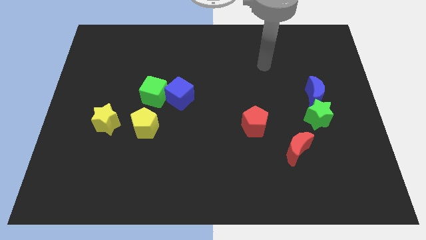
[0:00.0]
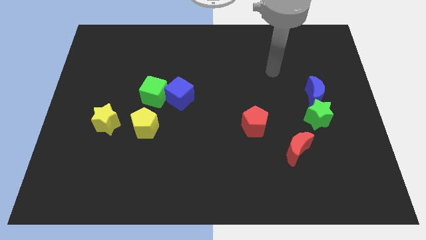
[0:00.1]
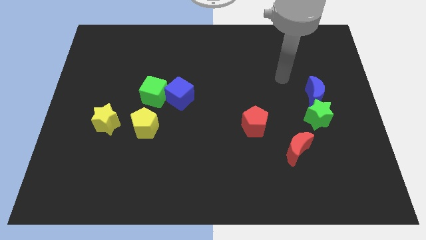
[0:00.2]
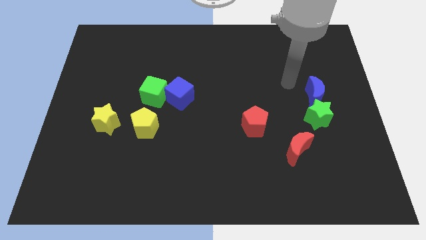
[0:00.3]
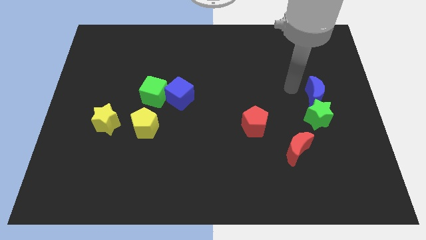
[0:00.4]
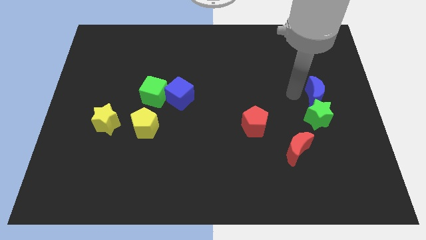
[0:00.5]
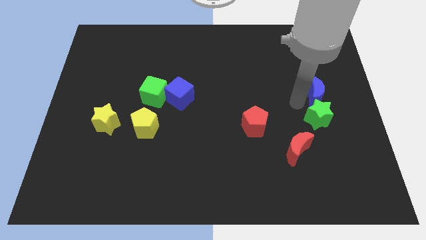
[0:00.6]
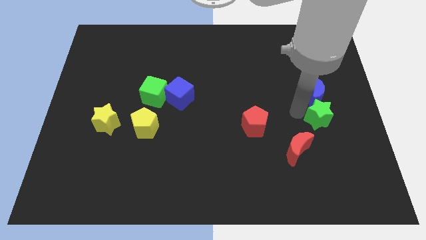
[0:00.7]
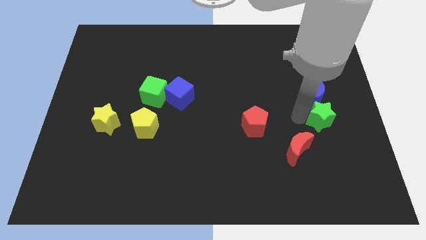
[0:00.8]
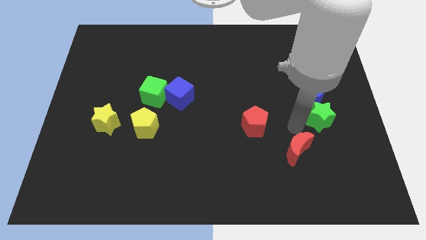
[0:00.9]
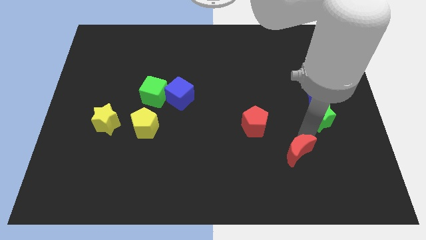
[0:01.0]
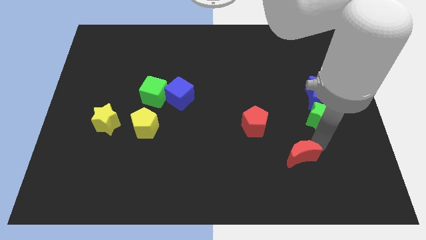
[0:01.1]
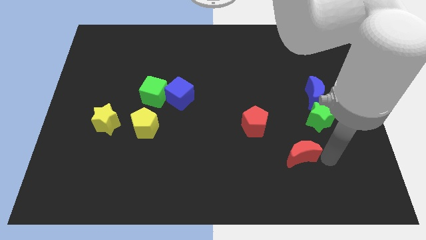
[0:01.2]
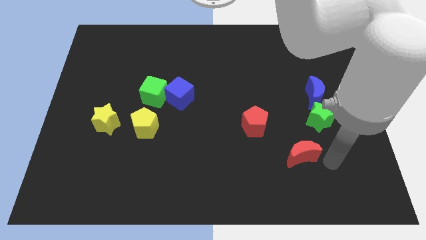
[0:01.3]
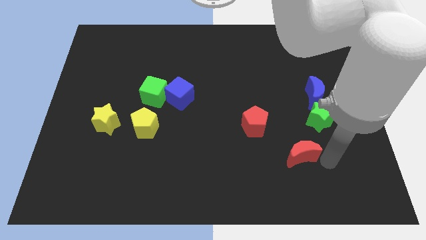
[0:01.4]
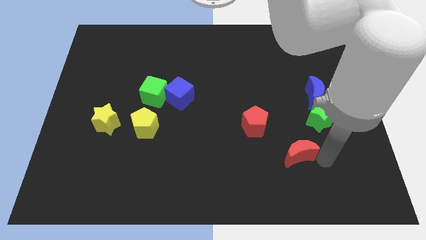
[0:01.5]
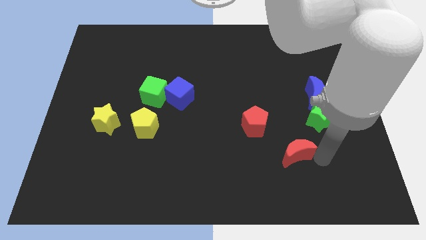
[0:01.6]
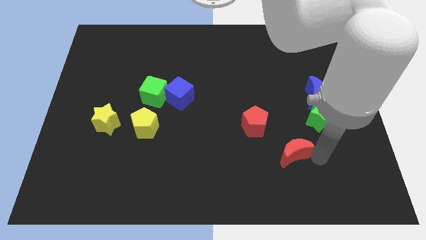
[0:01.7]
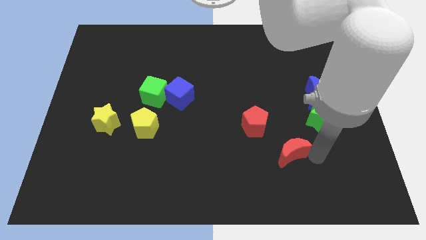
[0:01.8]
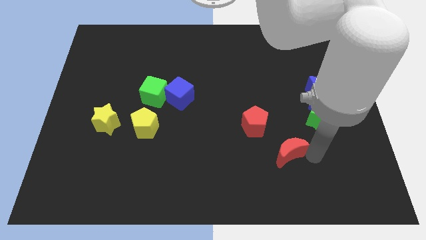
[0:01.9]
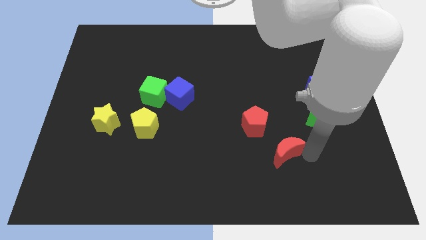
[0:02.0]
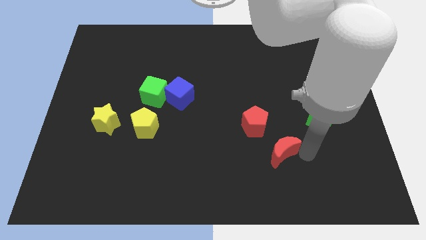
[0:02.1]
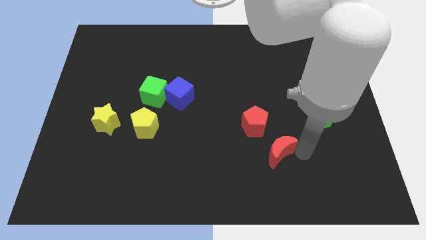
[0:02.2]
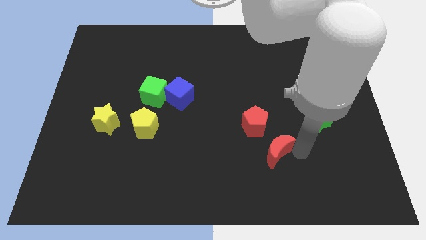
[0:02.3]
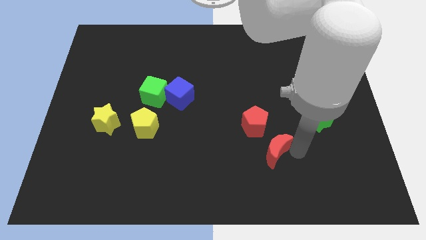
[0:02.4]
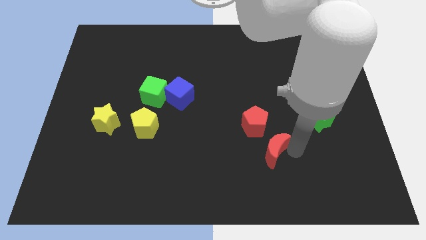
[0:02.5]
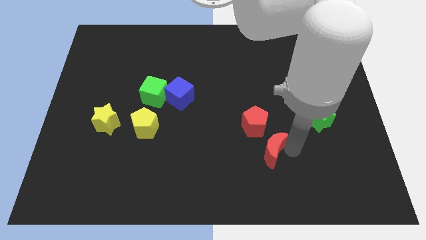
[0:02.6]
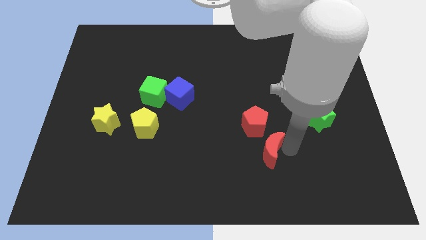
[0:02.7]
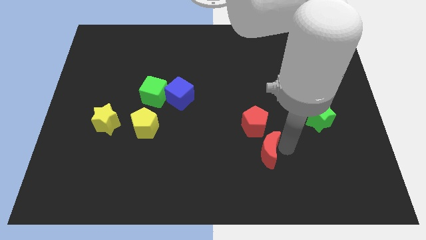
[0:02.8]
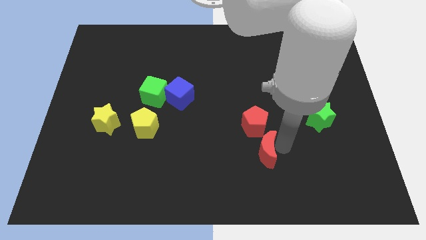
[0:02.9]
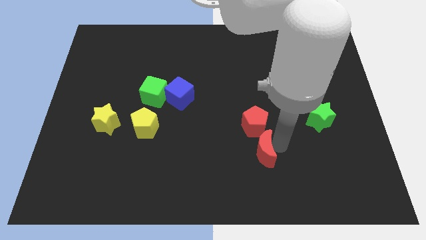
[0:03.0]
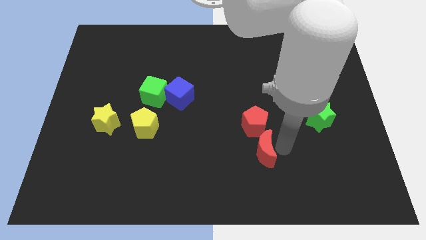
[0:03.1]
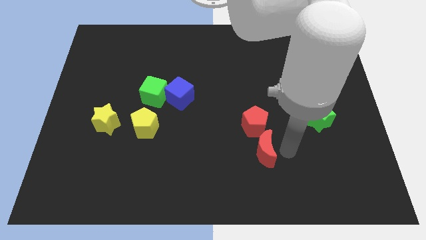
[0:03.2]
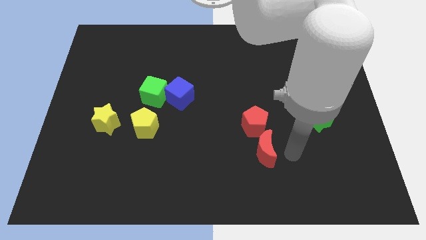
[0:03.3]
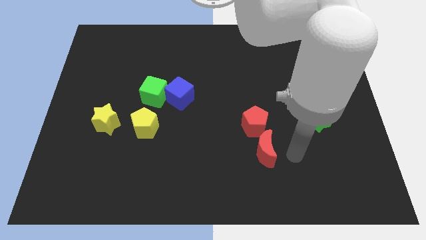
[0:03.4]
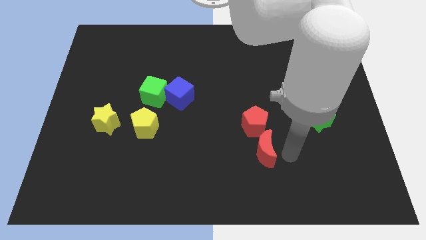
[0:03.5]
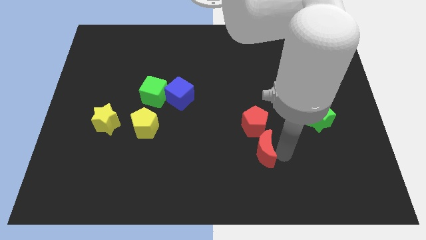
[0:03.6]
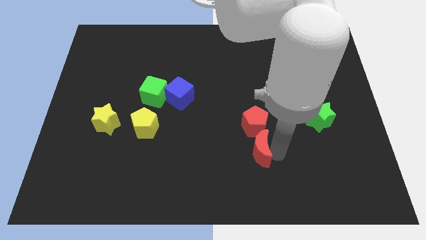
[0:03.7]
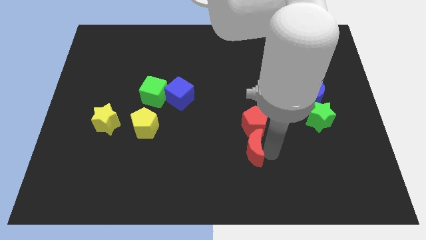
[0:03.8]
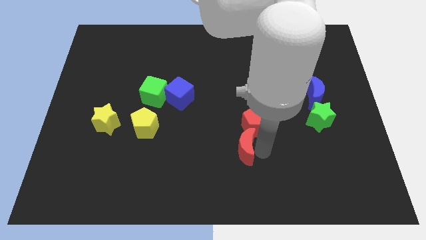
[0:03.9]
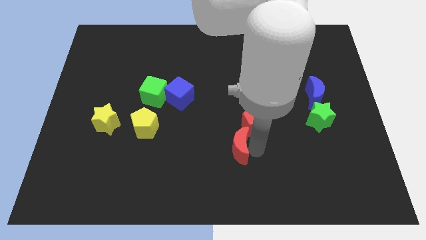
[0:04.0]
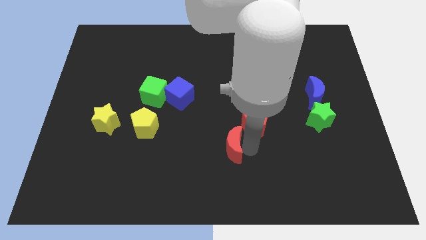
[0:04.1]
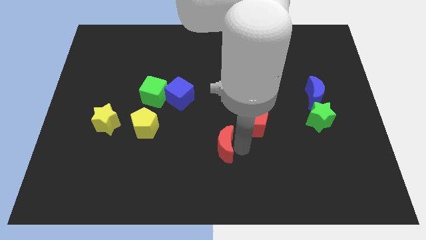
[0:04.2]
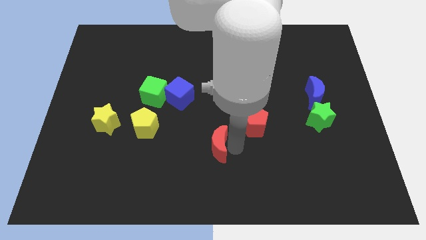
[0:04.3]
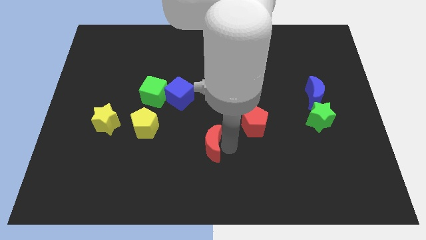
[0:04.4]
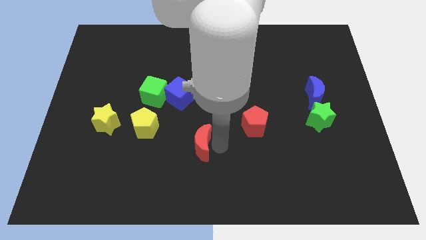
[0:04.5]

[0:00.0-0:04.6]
move the red moon to the left

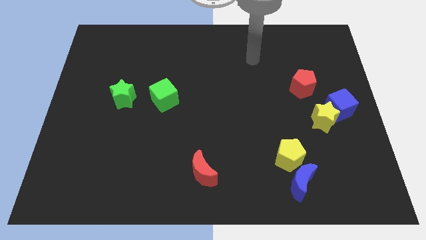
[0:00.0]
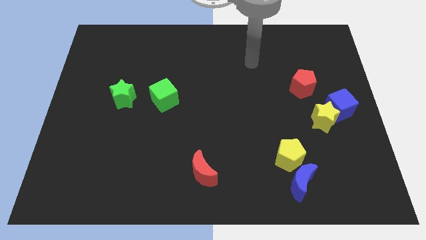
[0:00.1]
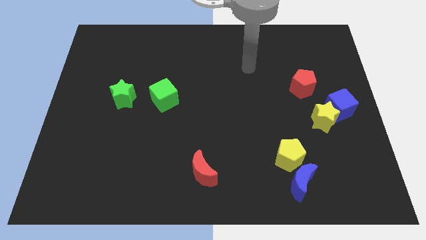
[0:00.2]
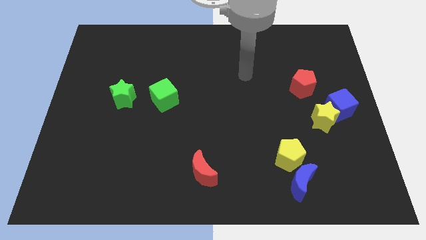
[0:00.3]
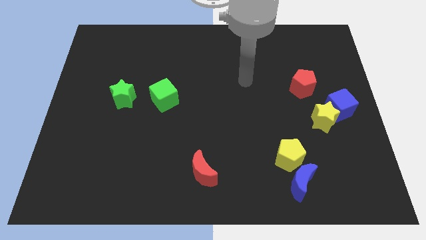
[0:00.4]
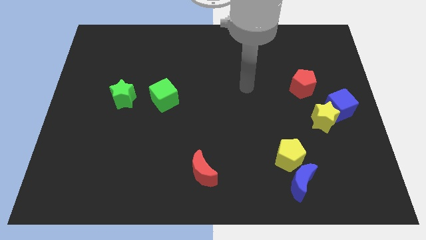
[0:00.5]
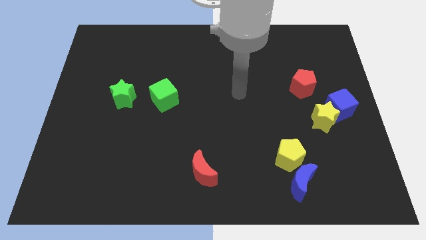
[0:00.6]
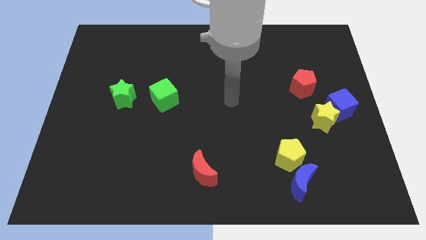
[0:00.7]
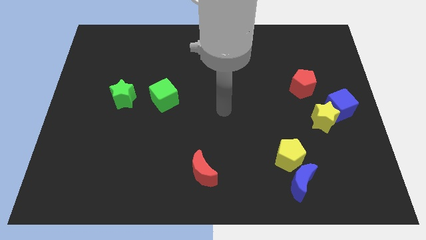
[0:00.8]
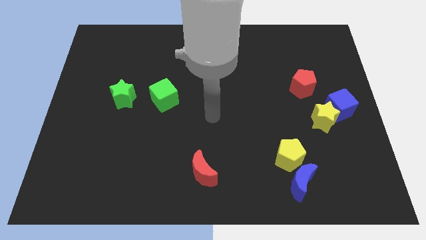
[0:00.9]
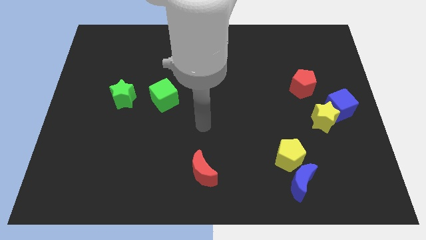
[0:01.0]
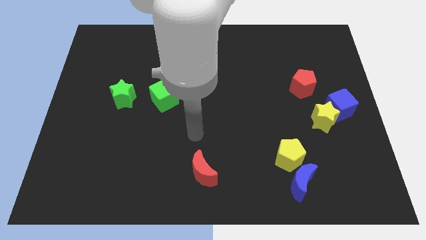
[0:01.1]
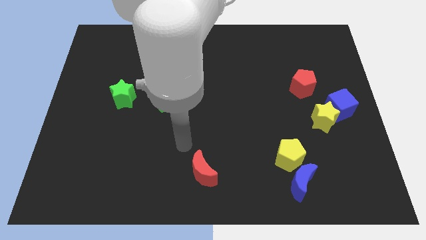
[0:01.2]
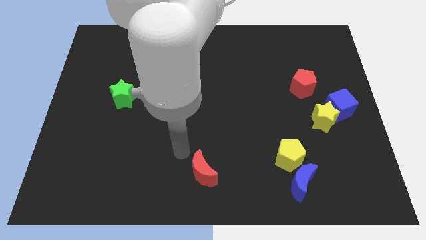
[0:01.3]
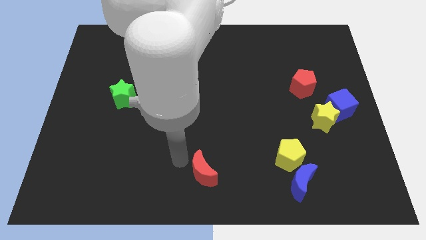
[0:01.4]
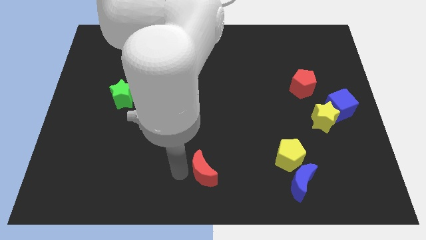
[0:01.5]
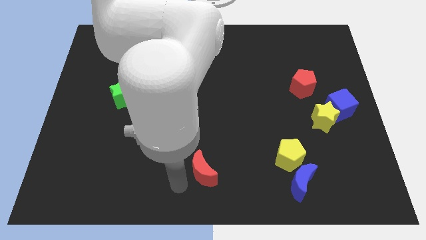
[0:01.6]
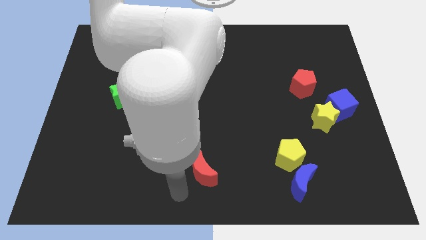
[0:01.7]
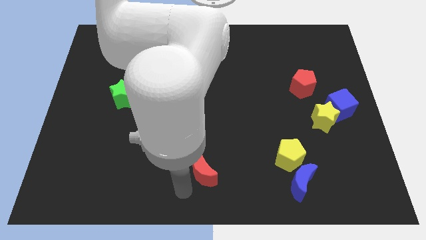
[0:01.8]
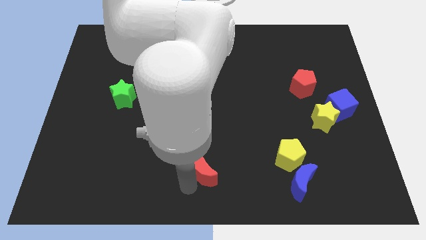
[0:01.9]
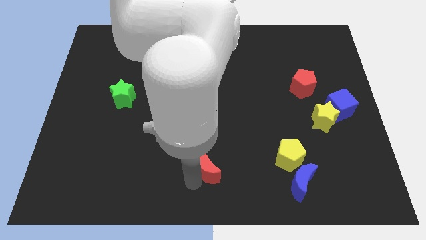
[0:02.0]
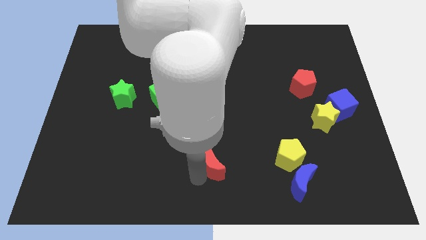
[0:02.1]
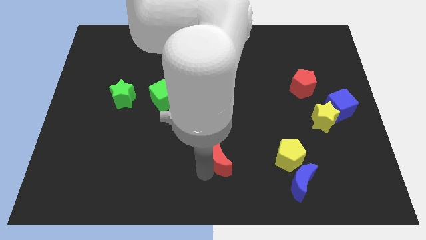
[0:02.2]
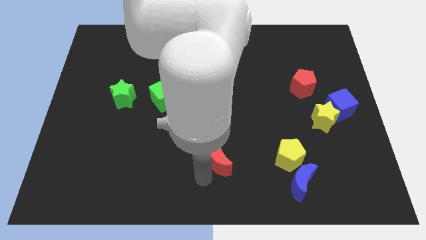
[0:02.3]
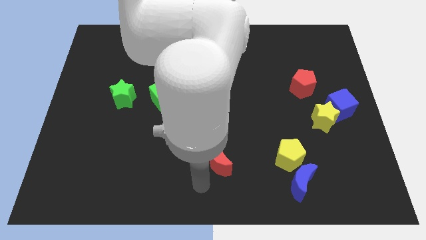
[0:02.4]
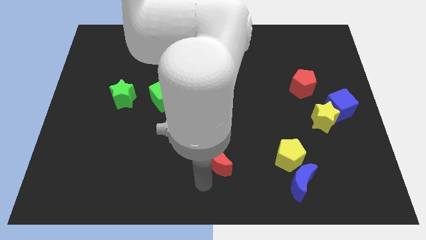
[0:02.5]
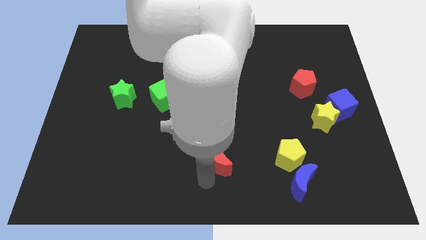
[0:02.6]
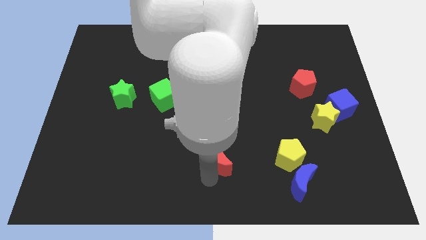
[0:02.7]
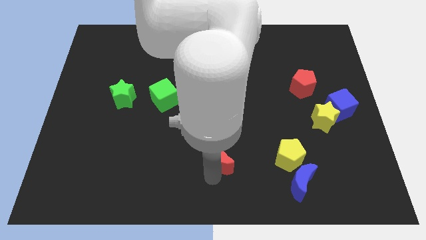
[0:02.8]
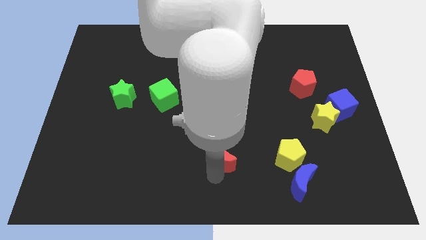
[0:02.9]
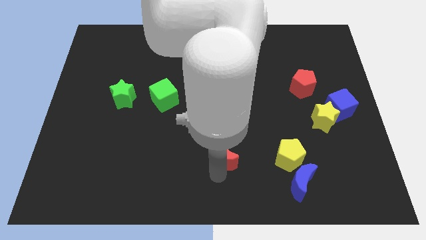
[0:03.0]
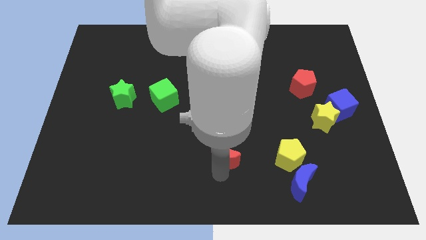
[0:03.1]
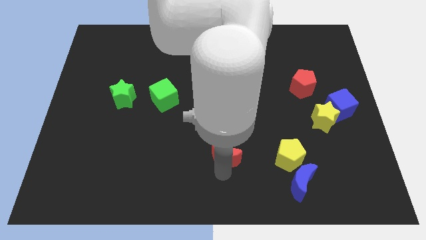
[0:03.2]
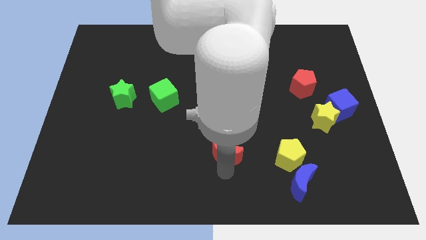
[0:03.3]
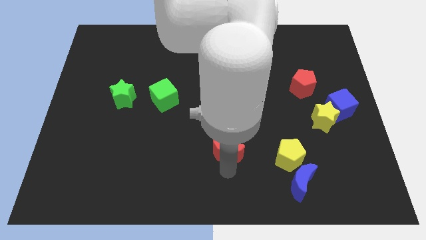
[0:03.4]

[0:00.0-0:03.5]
move the red moon slightly up and then right

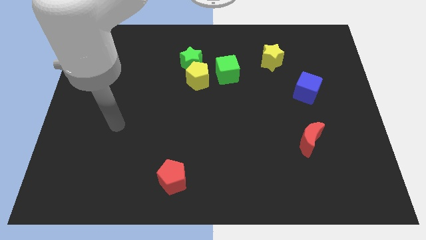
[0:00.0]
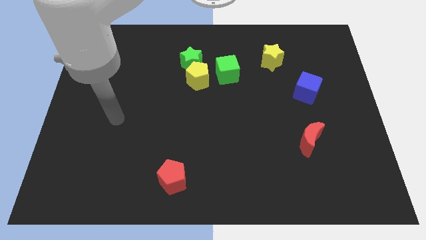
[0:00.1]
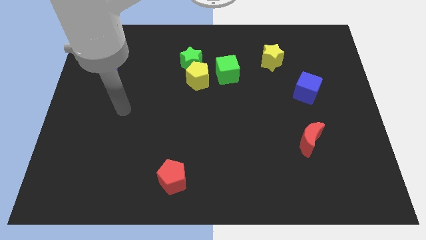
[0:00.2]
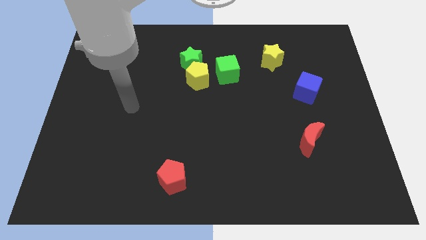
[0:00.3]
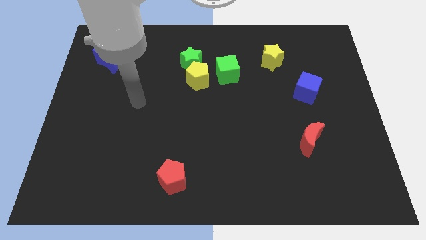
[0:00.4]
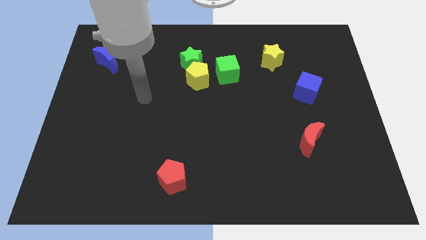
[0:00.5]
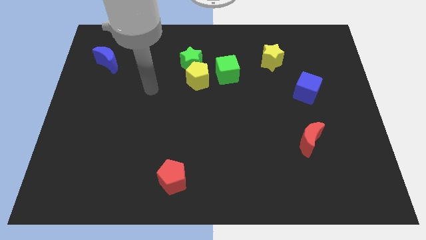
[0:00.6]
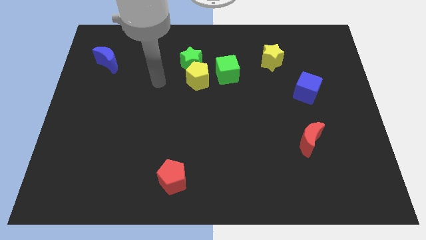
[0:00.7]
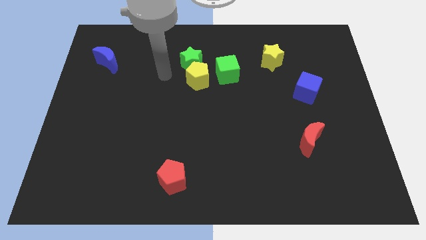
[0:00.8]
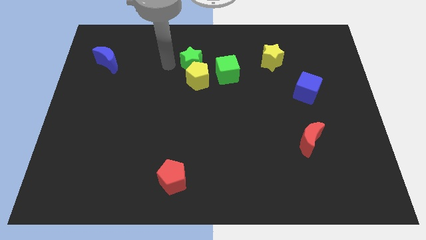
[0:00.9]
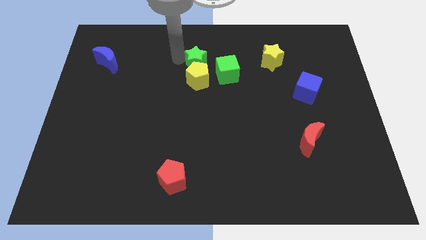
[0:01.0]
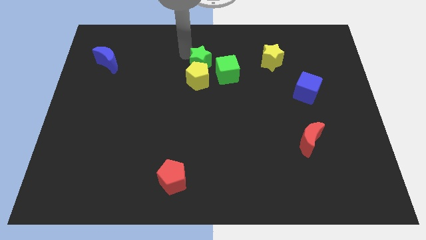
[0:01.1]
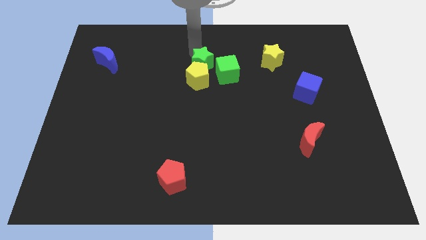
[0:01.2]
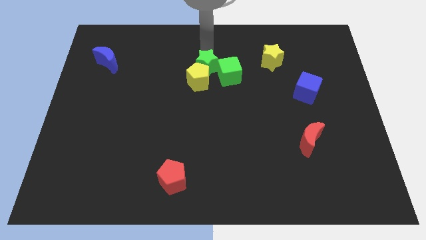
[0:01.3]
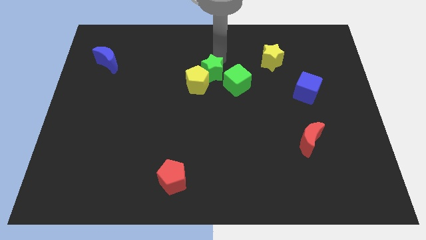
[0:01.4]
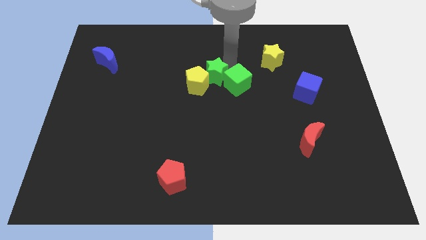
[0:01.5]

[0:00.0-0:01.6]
slightly push the green star downwards and right diagonally
